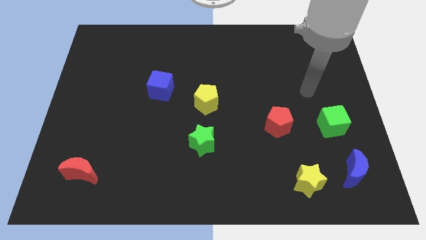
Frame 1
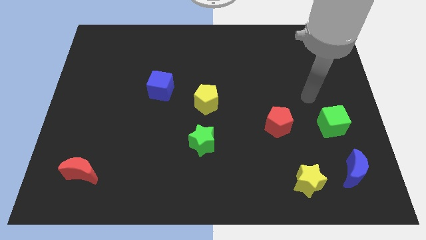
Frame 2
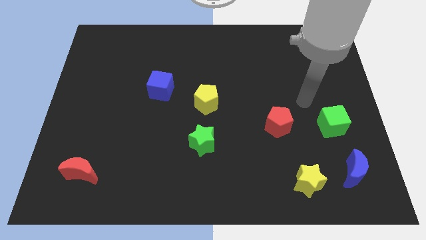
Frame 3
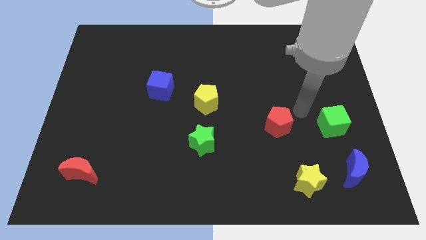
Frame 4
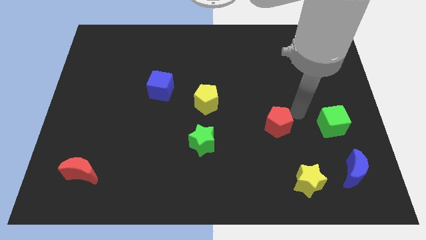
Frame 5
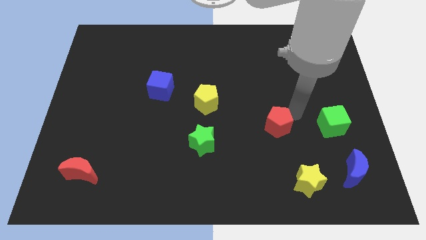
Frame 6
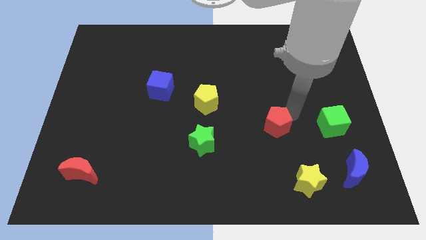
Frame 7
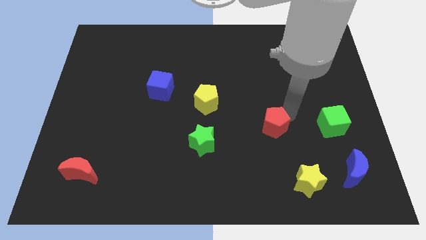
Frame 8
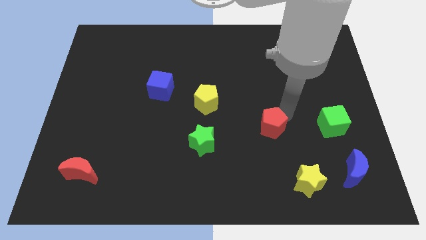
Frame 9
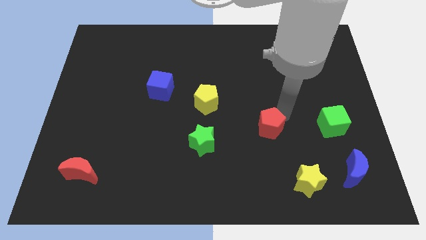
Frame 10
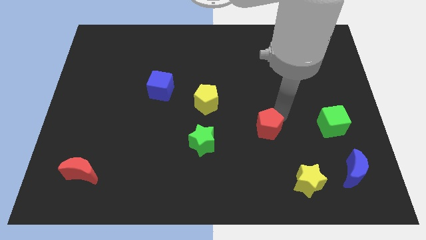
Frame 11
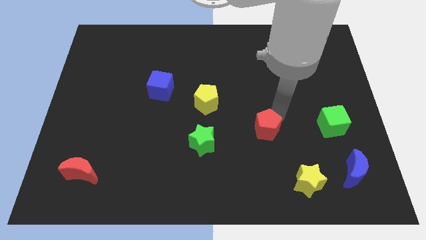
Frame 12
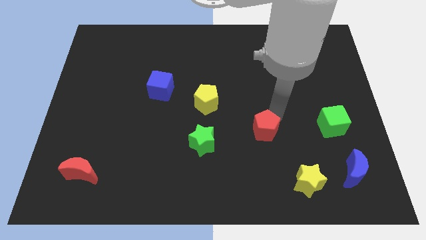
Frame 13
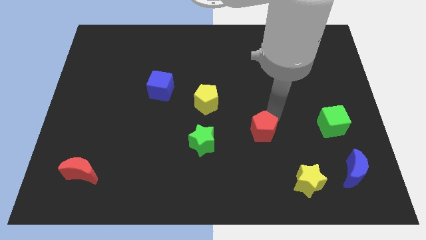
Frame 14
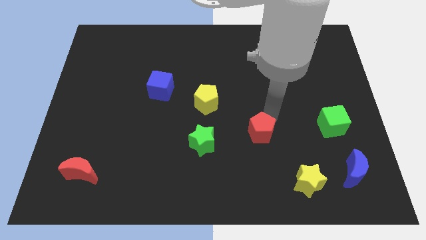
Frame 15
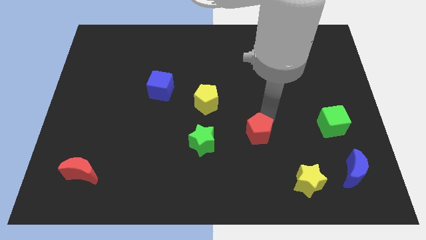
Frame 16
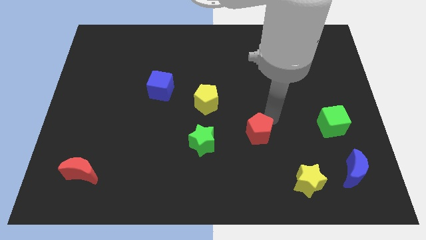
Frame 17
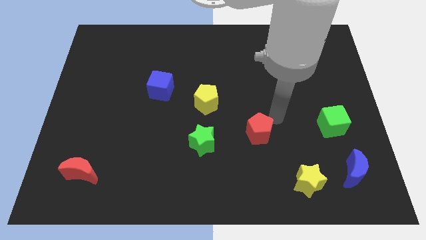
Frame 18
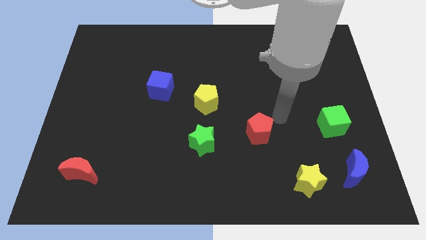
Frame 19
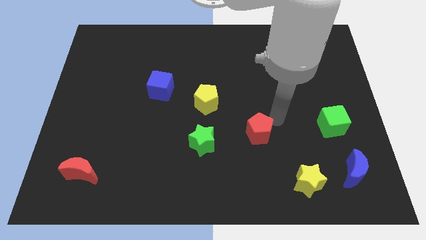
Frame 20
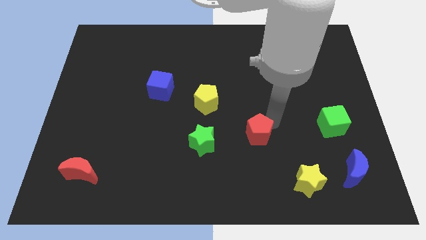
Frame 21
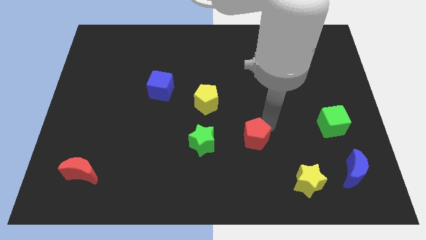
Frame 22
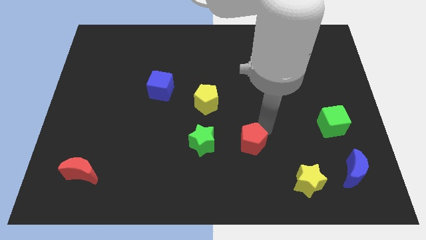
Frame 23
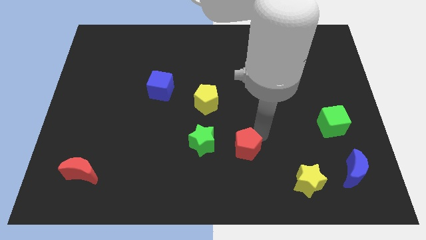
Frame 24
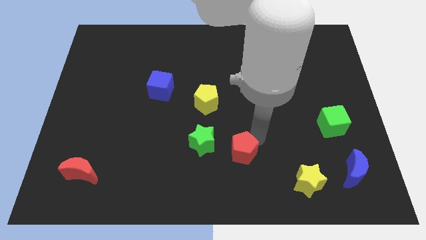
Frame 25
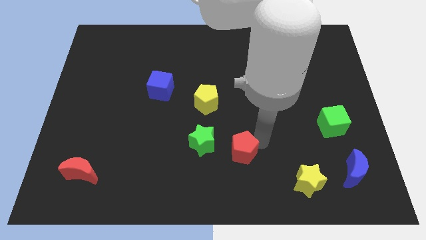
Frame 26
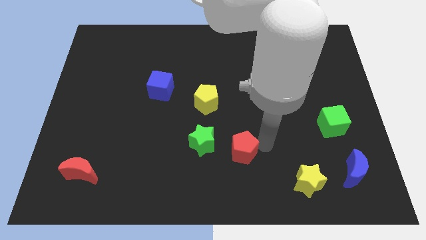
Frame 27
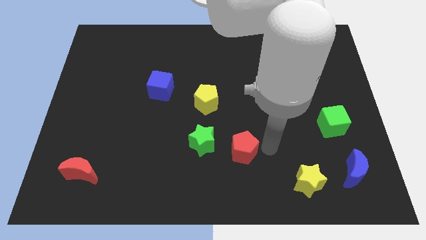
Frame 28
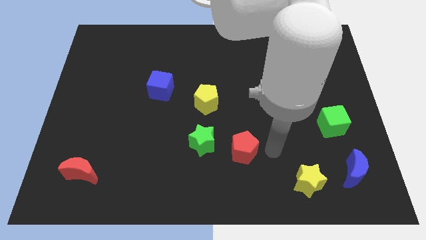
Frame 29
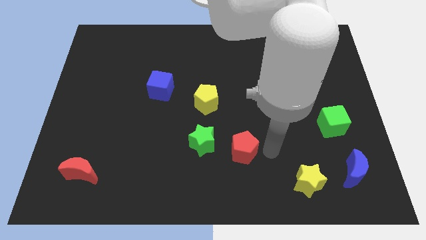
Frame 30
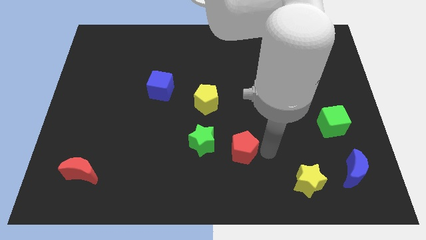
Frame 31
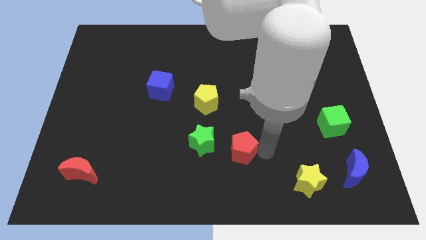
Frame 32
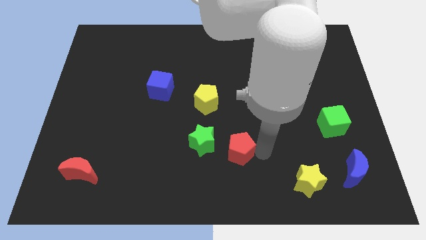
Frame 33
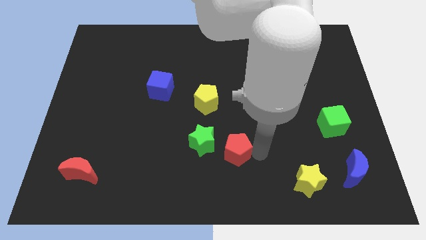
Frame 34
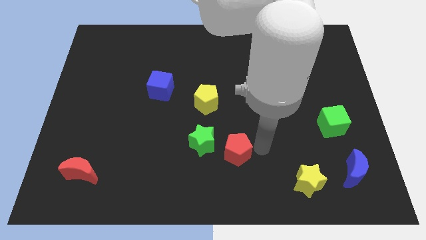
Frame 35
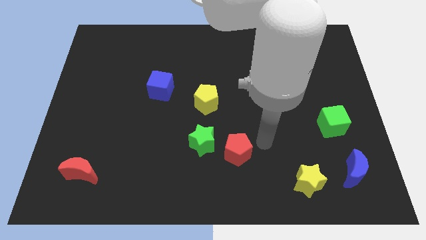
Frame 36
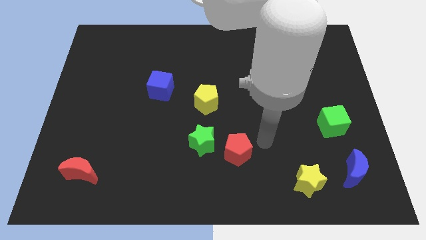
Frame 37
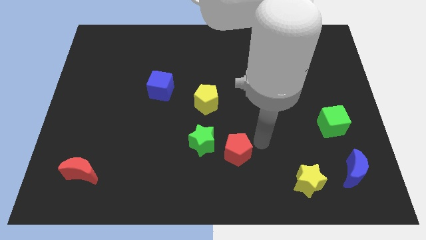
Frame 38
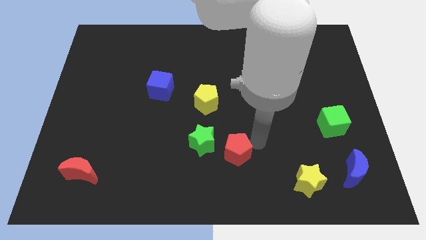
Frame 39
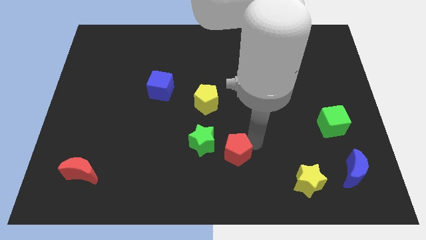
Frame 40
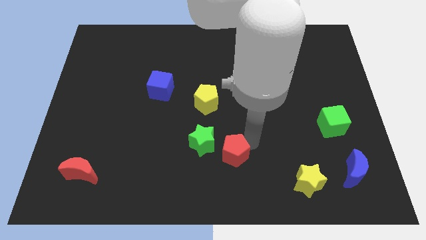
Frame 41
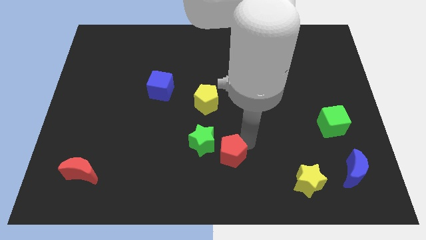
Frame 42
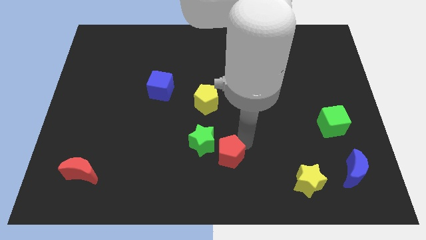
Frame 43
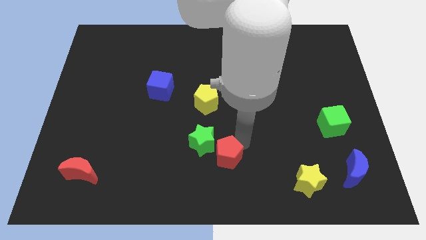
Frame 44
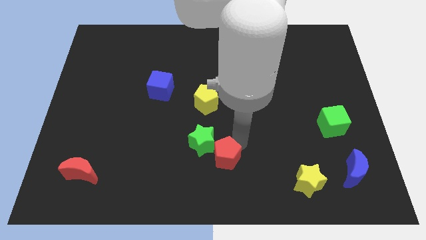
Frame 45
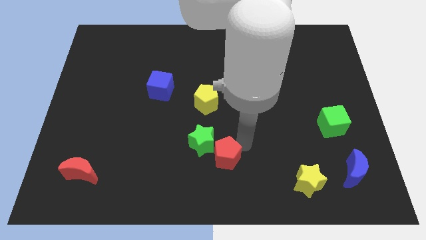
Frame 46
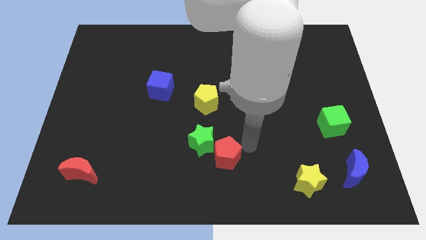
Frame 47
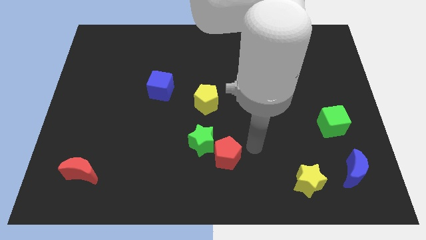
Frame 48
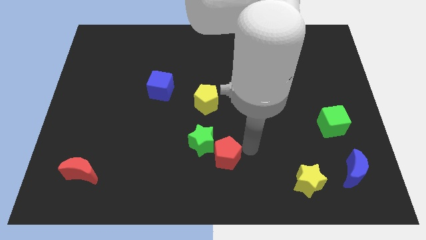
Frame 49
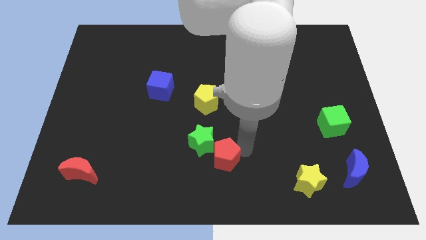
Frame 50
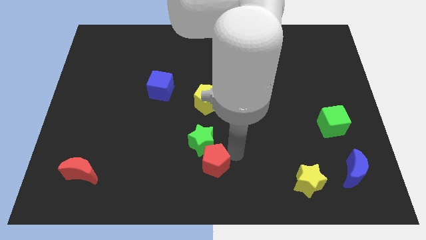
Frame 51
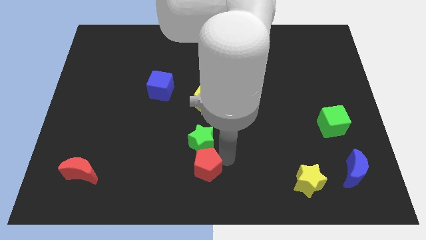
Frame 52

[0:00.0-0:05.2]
move the red pentagon diagonally down and to the left of the green star

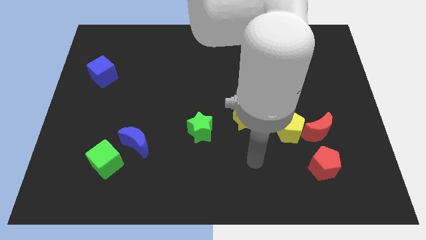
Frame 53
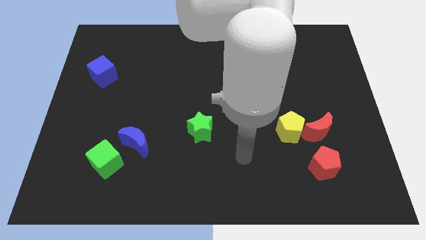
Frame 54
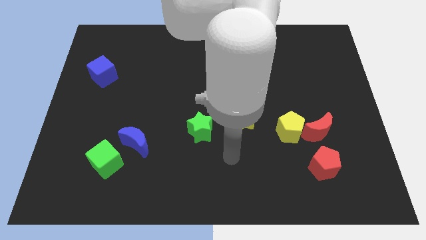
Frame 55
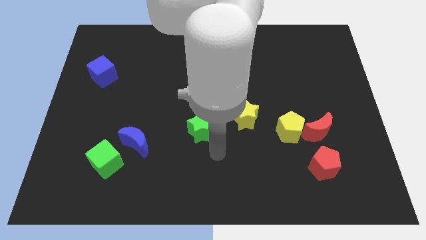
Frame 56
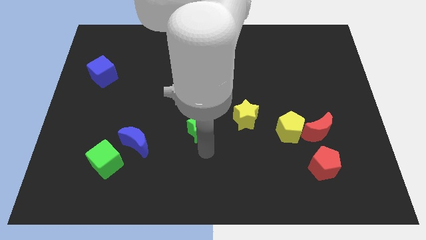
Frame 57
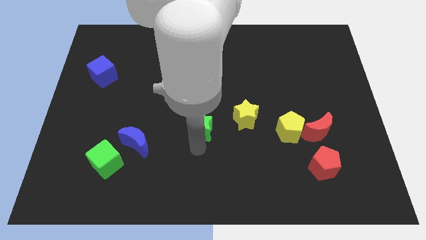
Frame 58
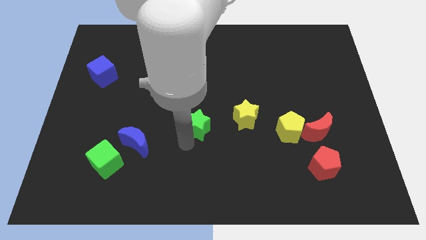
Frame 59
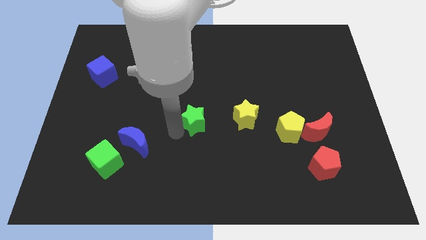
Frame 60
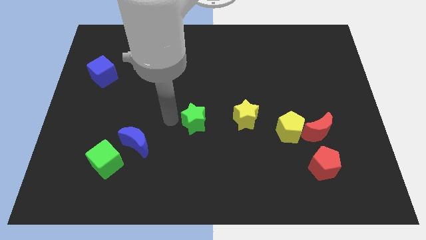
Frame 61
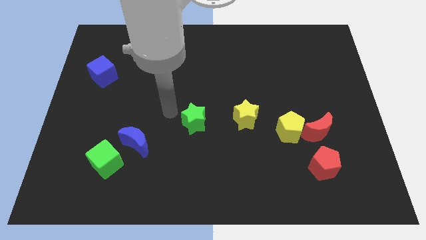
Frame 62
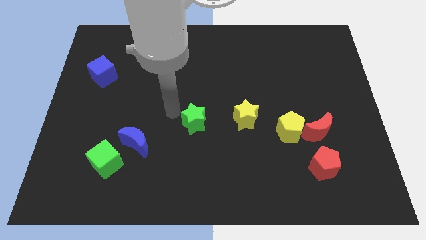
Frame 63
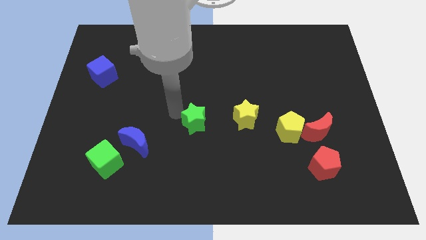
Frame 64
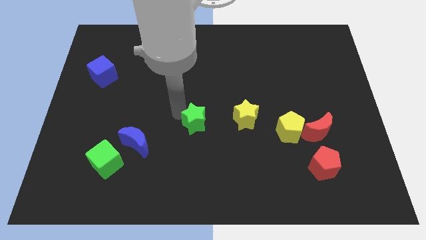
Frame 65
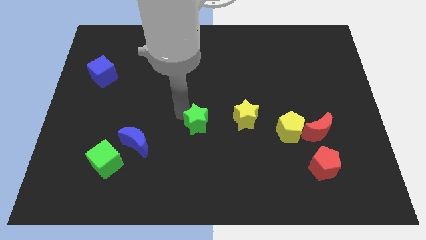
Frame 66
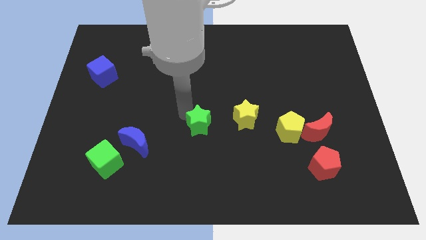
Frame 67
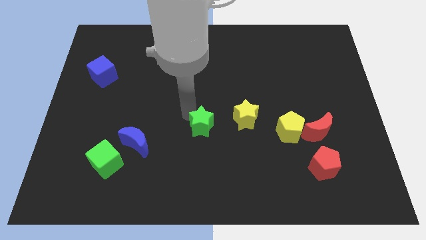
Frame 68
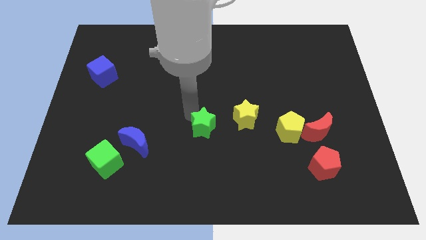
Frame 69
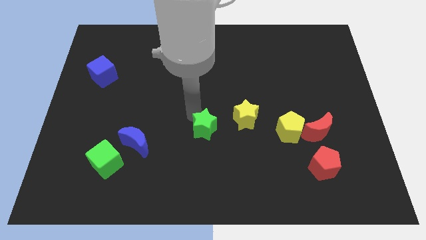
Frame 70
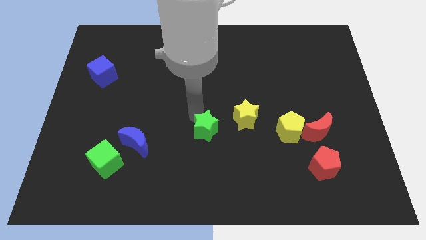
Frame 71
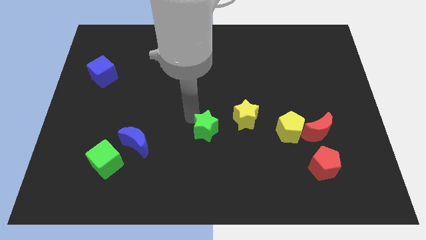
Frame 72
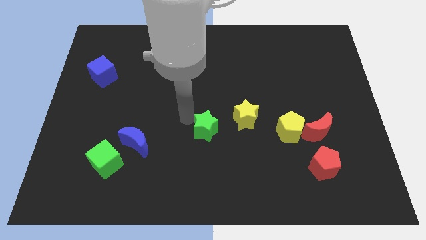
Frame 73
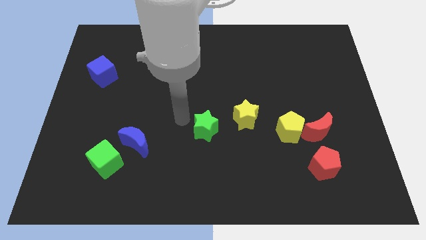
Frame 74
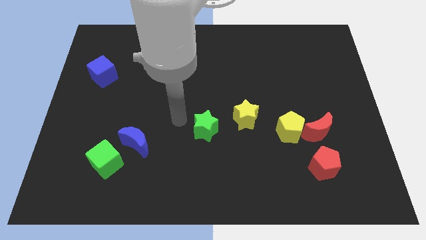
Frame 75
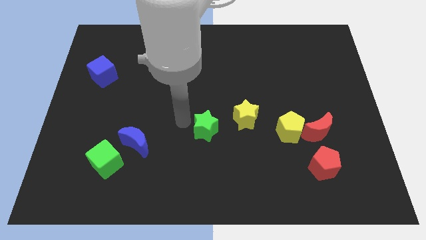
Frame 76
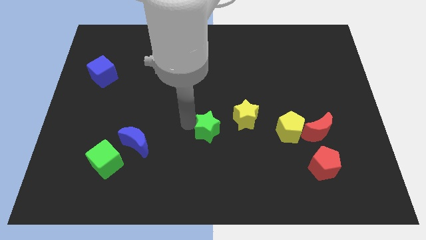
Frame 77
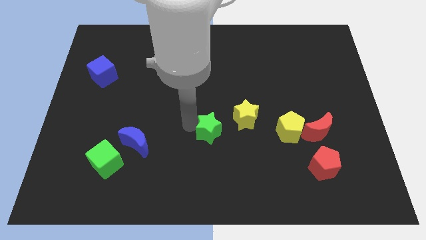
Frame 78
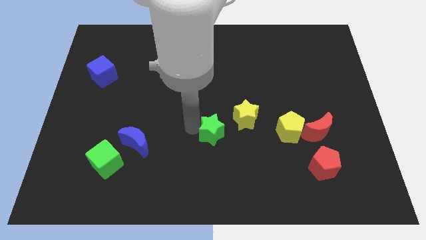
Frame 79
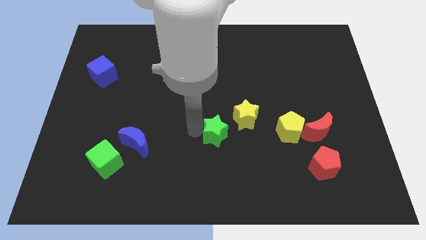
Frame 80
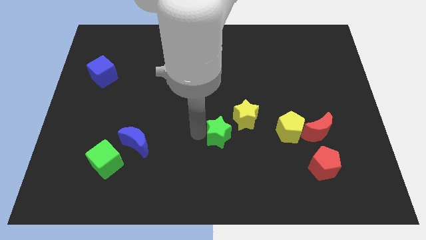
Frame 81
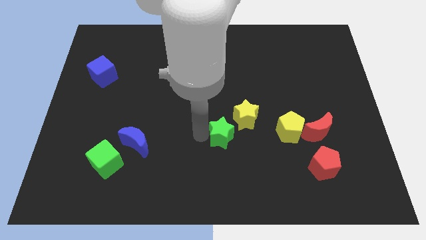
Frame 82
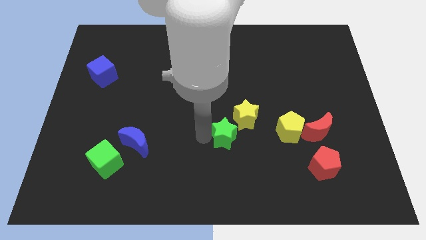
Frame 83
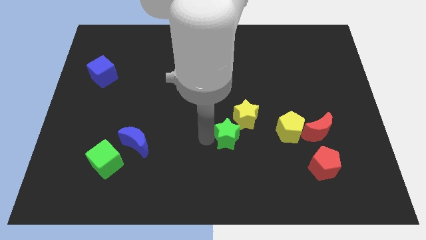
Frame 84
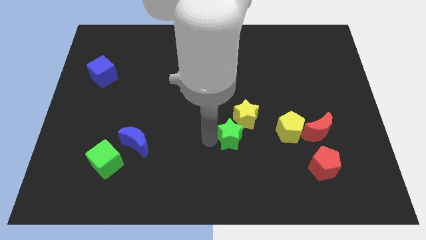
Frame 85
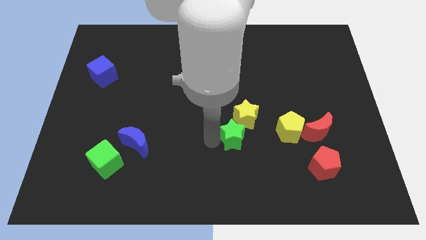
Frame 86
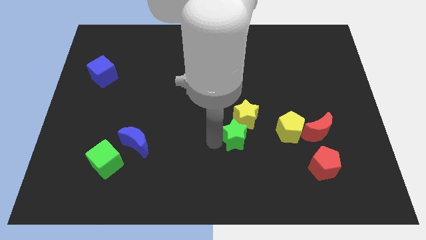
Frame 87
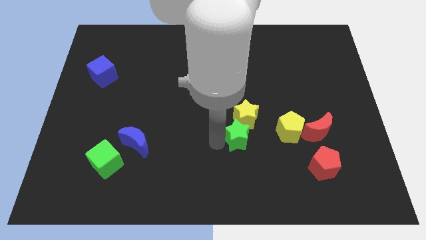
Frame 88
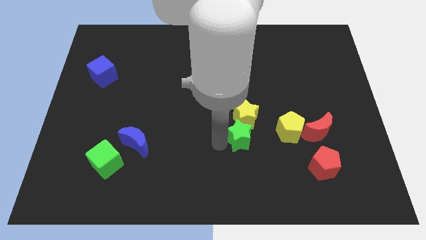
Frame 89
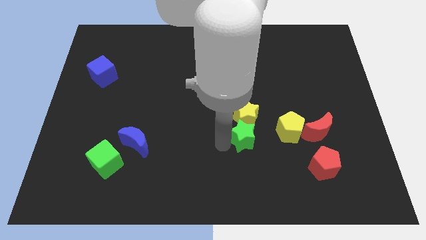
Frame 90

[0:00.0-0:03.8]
move the green star to the bottom right of the yellow star
